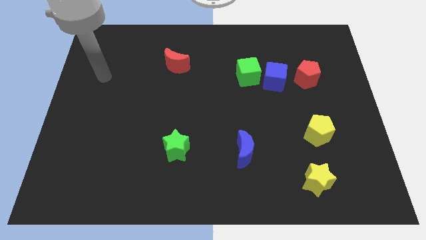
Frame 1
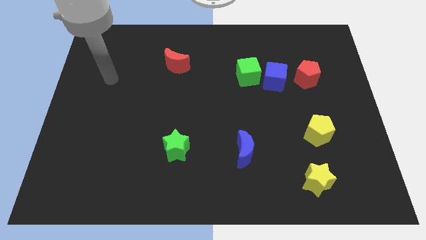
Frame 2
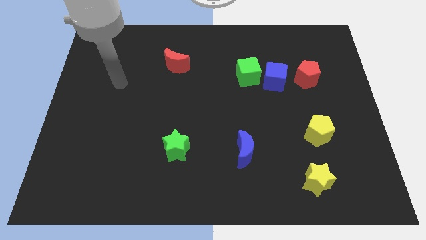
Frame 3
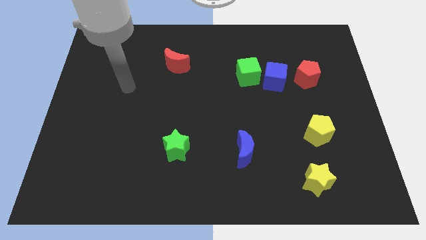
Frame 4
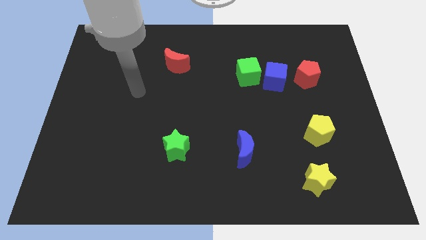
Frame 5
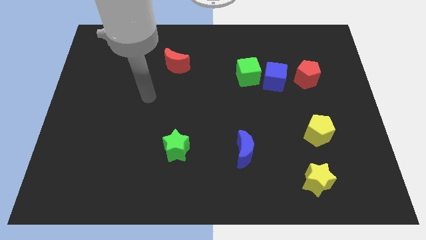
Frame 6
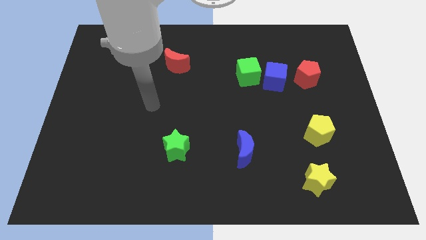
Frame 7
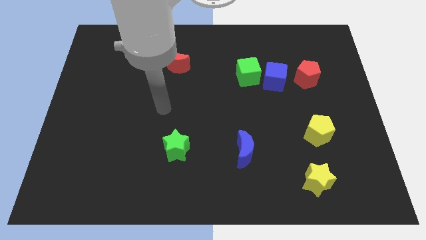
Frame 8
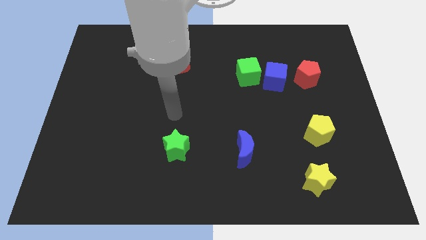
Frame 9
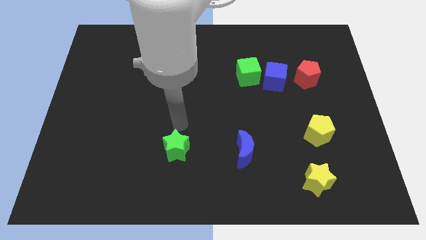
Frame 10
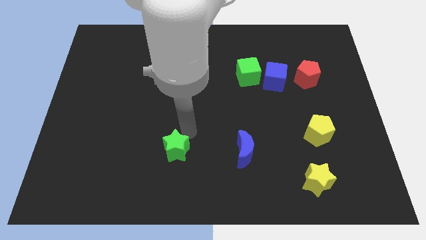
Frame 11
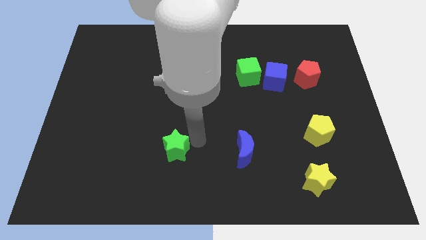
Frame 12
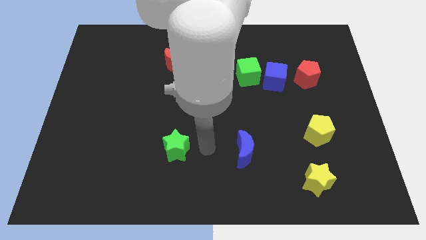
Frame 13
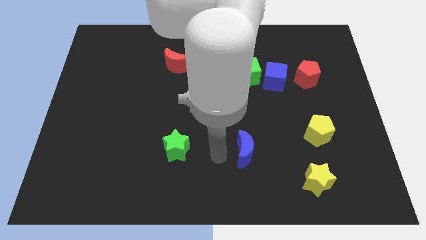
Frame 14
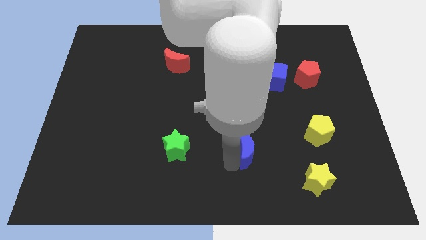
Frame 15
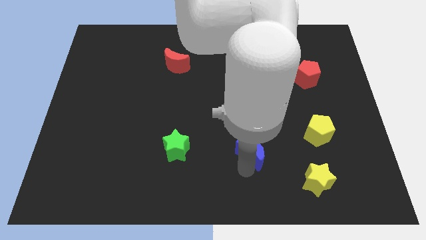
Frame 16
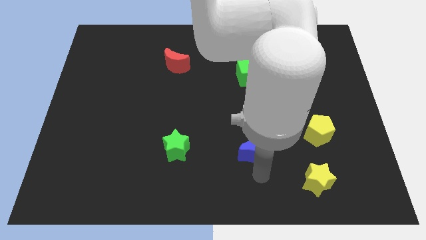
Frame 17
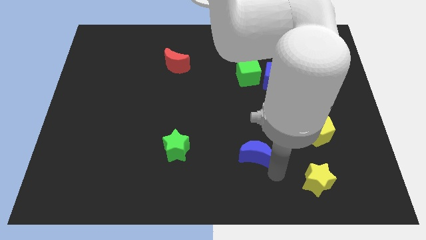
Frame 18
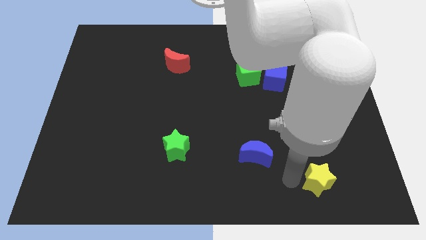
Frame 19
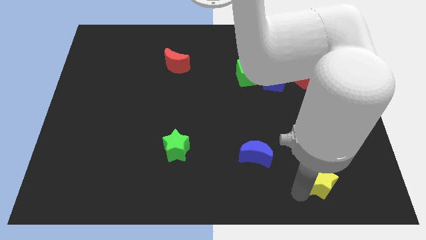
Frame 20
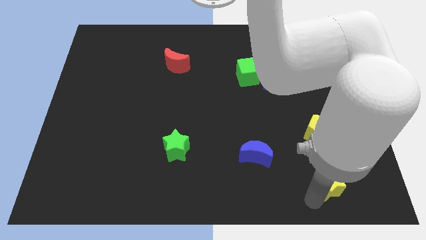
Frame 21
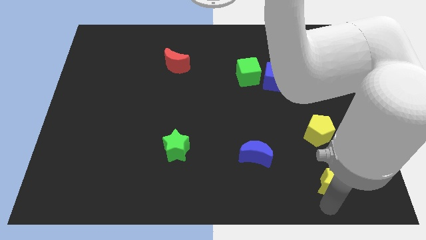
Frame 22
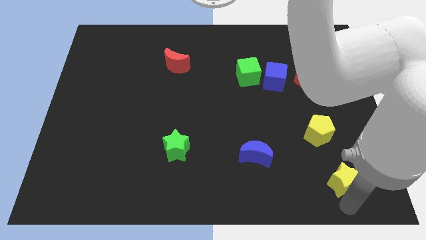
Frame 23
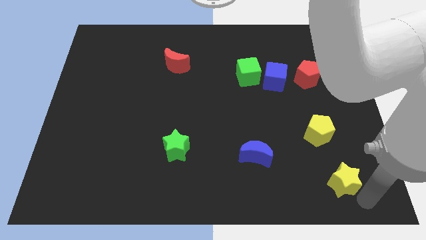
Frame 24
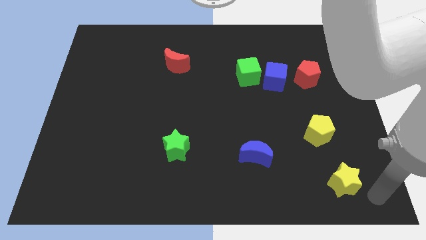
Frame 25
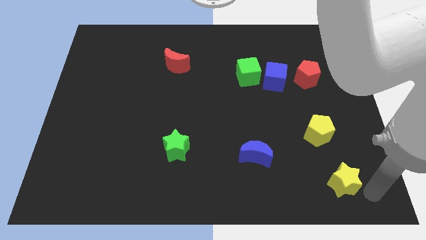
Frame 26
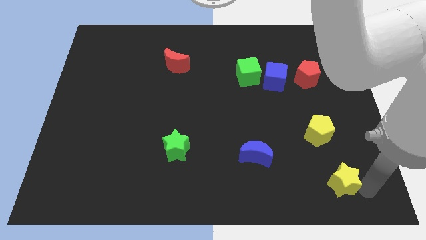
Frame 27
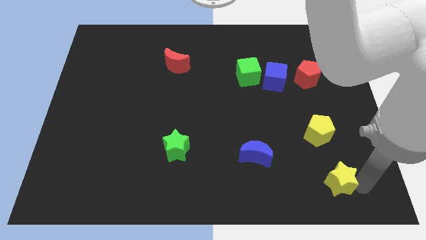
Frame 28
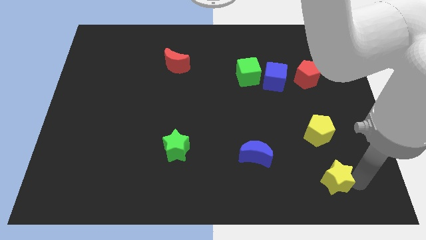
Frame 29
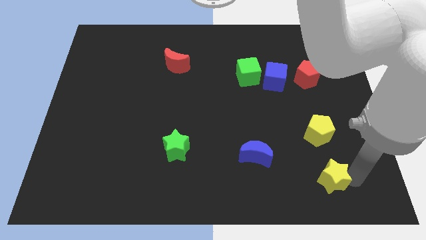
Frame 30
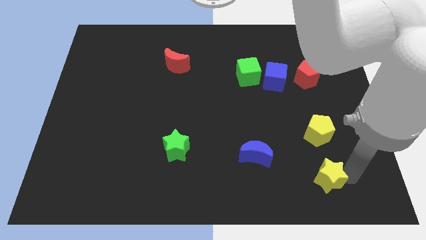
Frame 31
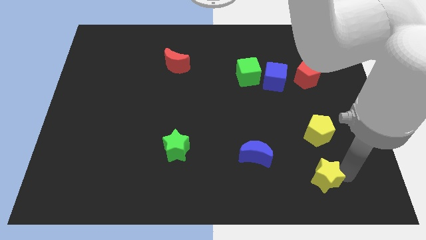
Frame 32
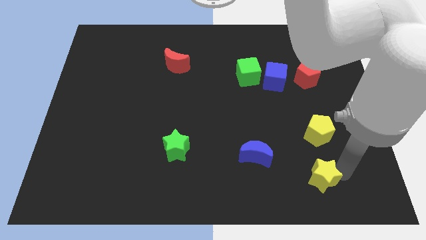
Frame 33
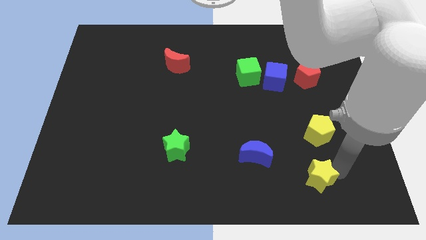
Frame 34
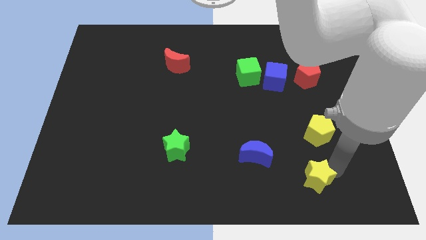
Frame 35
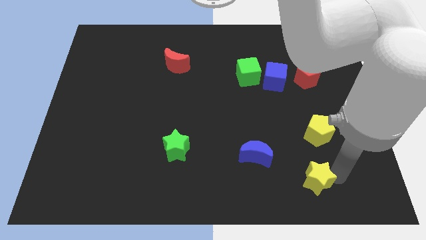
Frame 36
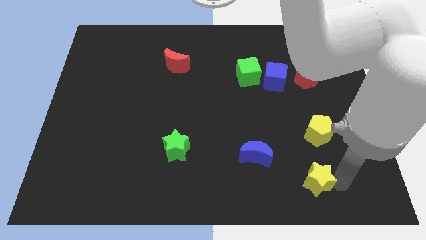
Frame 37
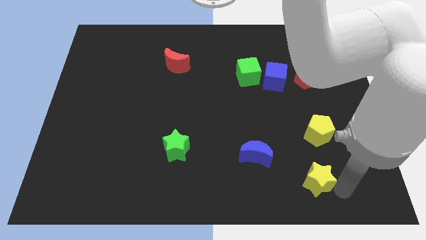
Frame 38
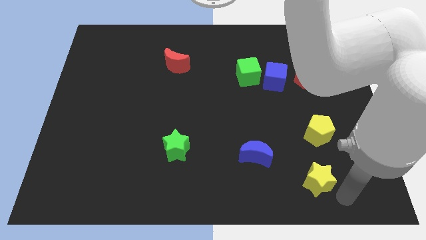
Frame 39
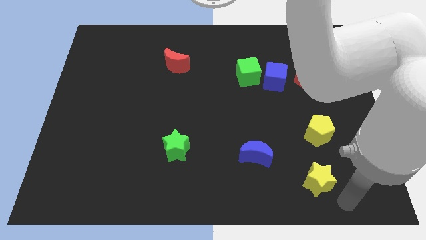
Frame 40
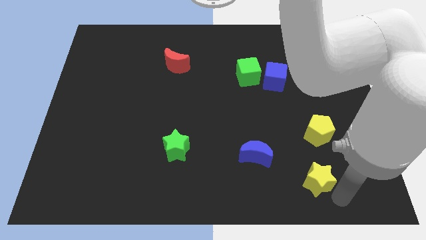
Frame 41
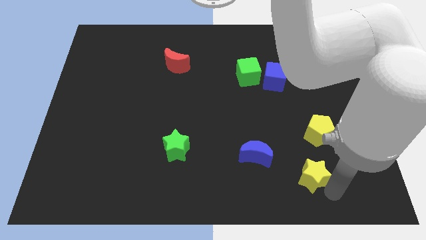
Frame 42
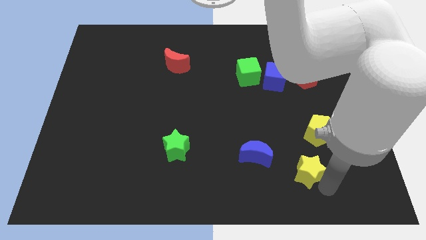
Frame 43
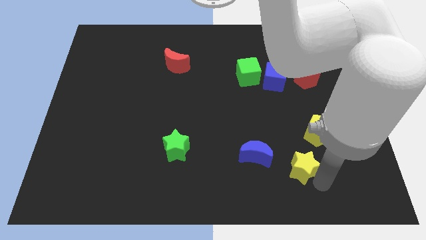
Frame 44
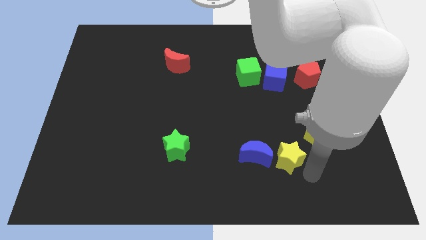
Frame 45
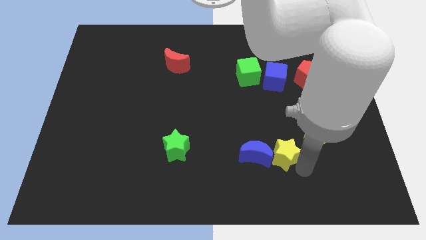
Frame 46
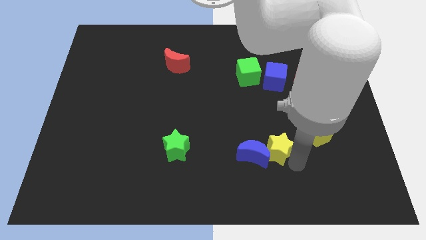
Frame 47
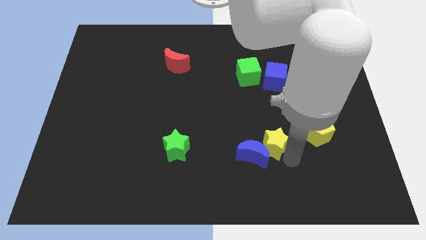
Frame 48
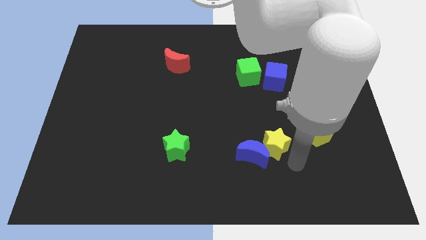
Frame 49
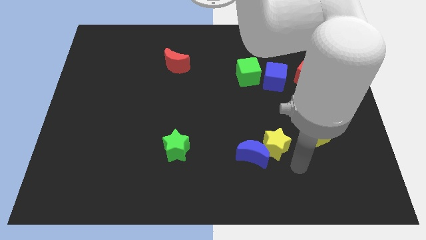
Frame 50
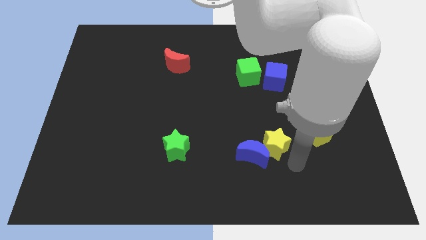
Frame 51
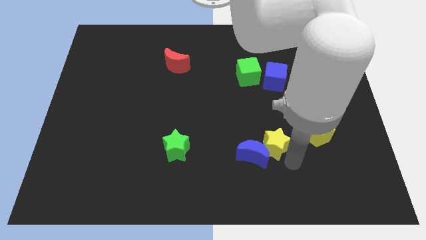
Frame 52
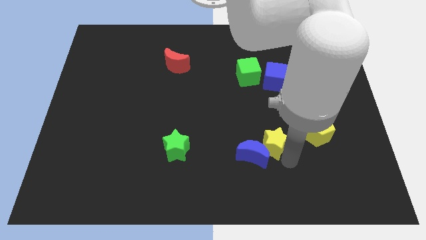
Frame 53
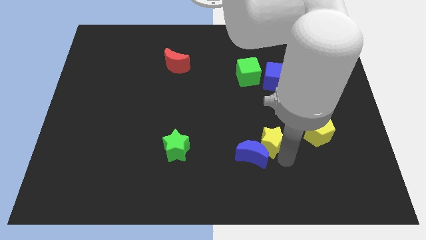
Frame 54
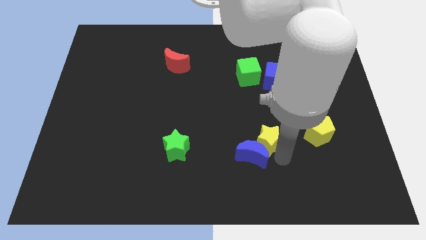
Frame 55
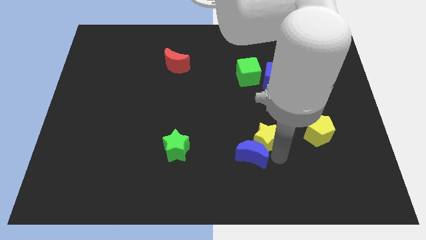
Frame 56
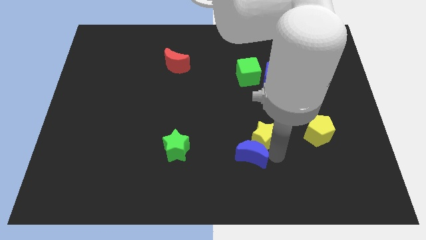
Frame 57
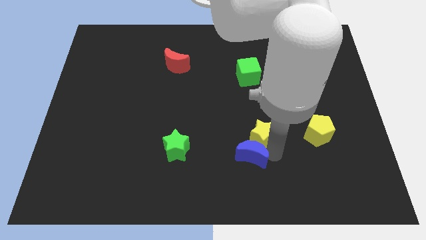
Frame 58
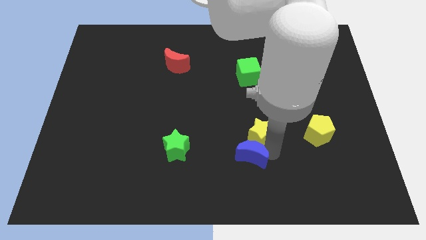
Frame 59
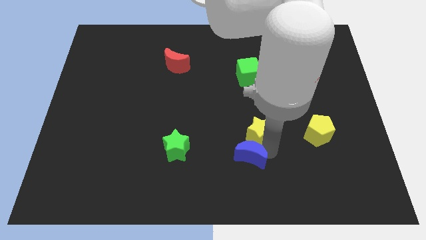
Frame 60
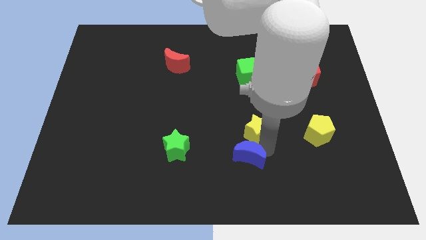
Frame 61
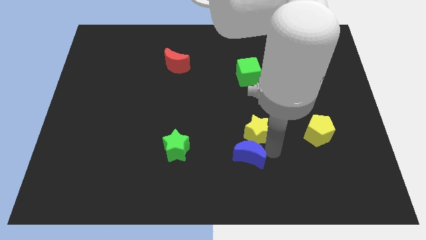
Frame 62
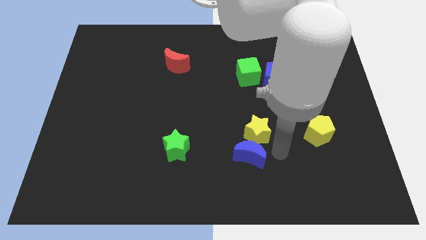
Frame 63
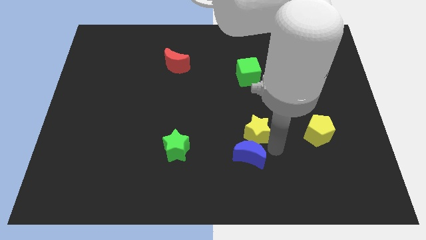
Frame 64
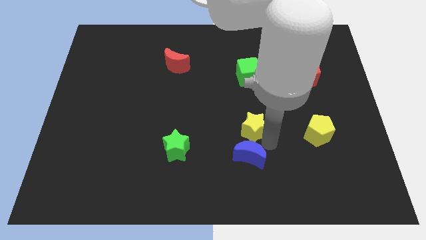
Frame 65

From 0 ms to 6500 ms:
push the yellow star to the center

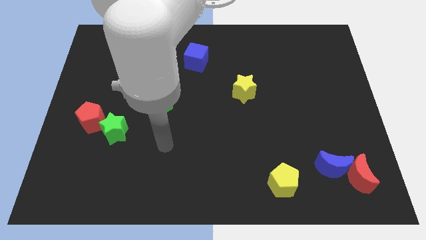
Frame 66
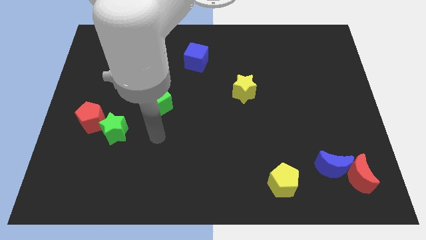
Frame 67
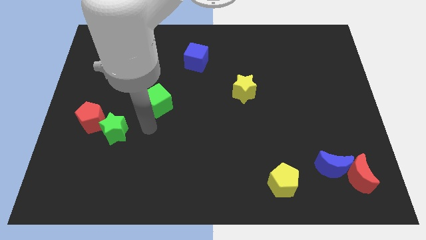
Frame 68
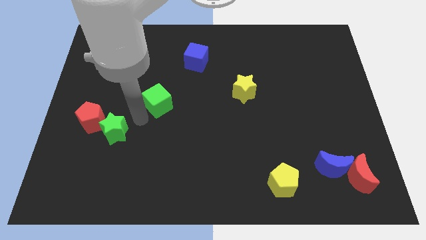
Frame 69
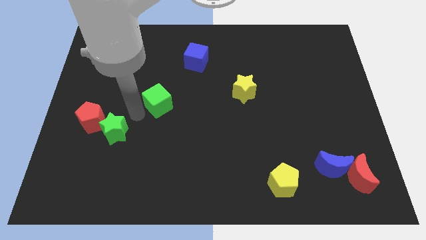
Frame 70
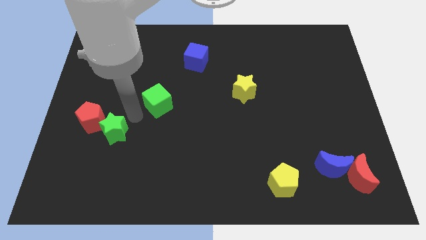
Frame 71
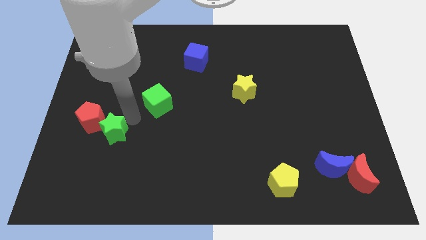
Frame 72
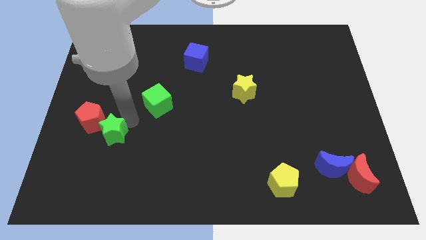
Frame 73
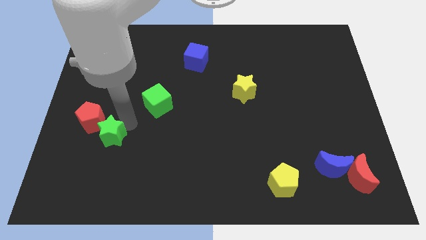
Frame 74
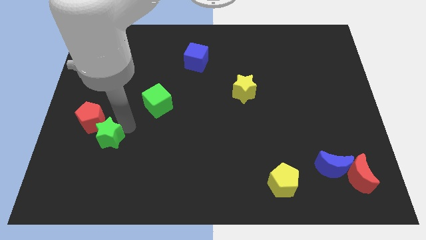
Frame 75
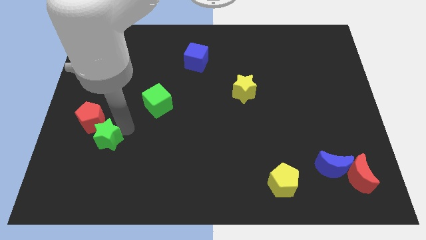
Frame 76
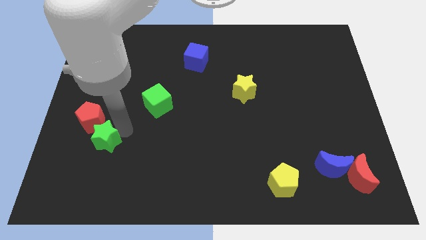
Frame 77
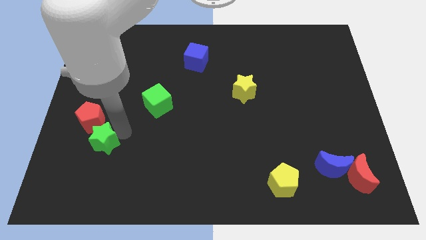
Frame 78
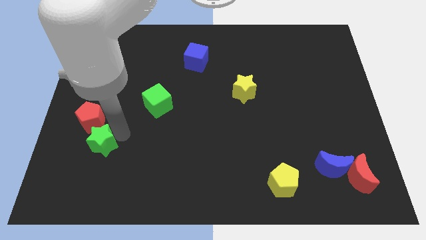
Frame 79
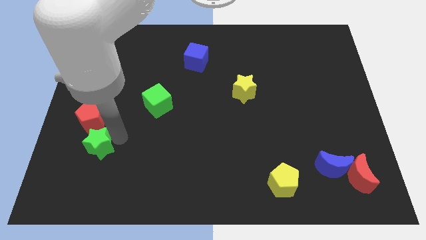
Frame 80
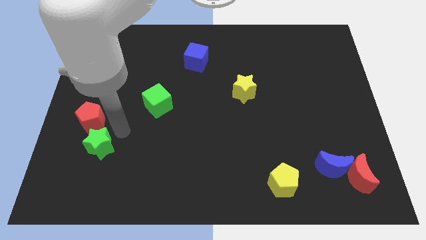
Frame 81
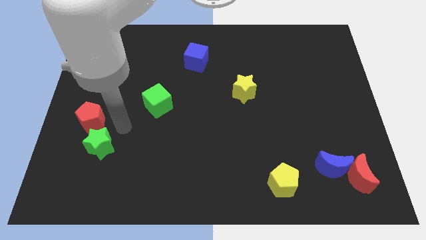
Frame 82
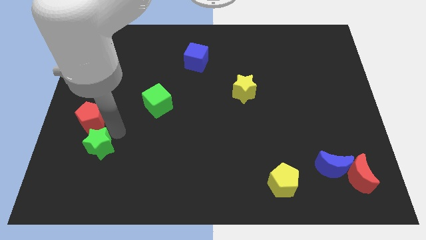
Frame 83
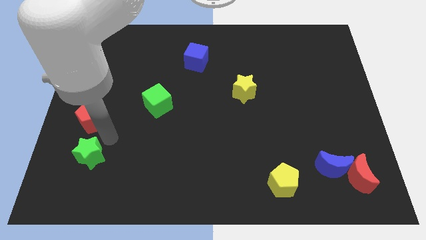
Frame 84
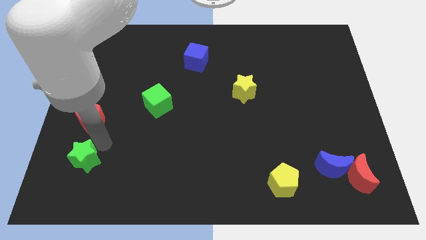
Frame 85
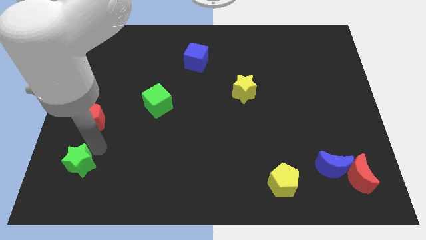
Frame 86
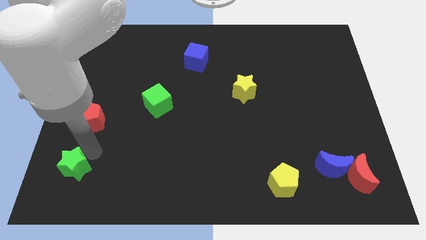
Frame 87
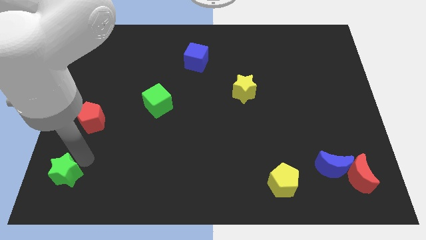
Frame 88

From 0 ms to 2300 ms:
move the green star to the bottom left
